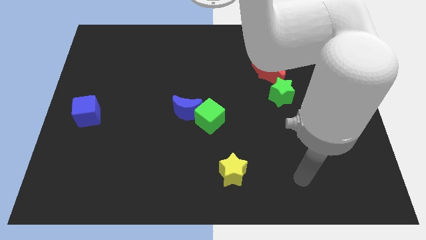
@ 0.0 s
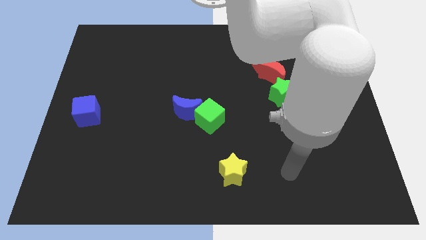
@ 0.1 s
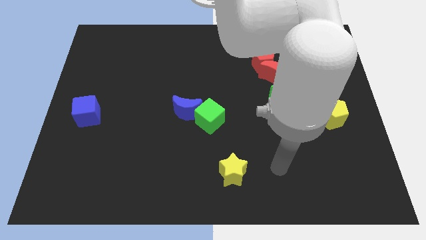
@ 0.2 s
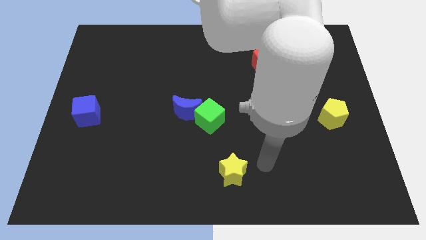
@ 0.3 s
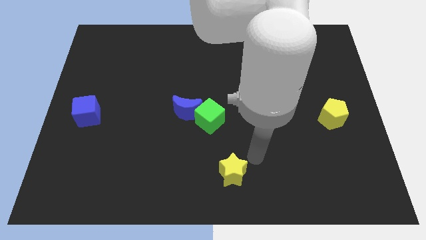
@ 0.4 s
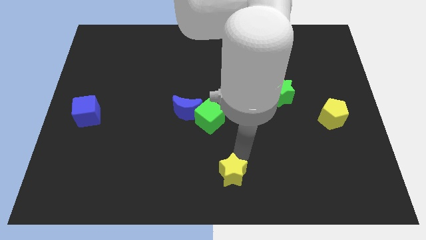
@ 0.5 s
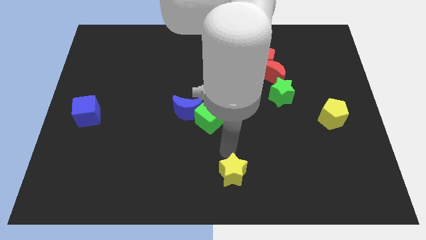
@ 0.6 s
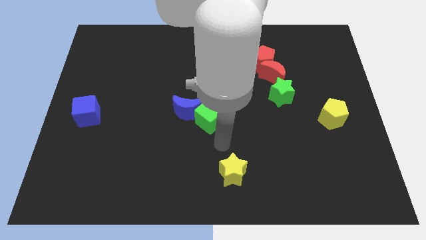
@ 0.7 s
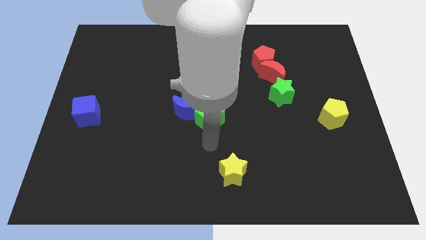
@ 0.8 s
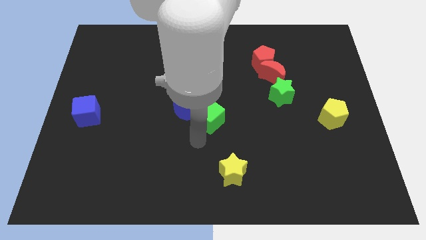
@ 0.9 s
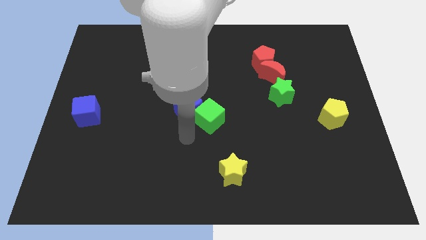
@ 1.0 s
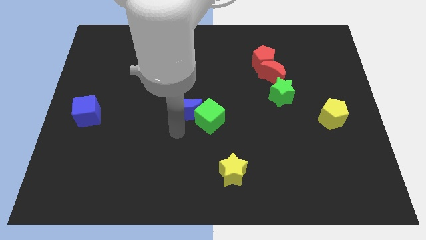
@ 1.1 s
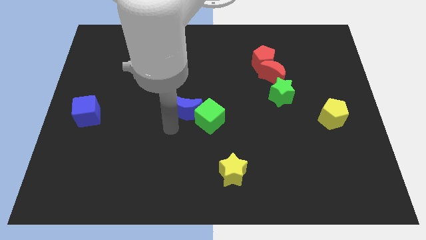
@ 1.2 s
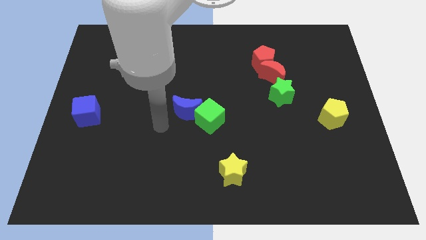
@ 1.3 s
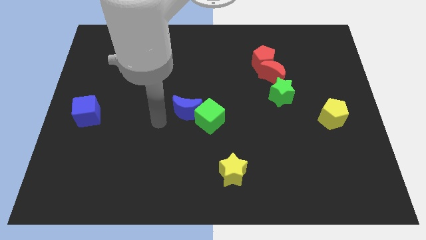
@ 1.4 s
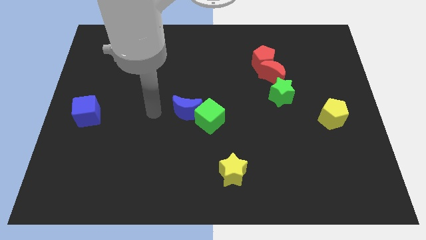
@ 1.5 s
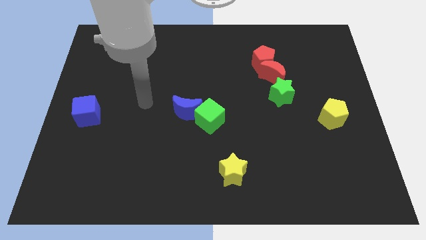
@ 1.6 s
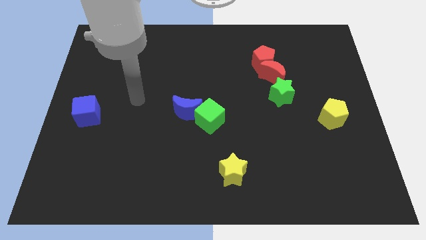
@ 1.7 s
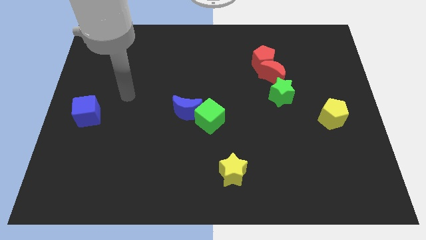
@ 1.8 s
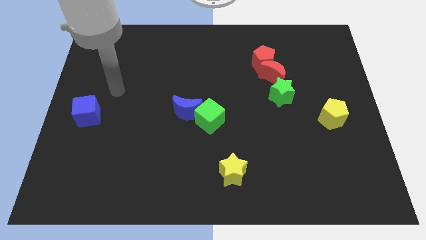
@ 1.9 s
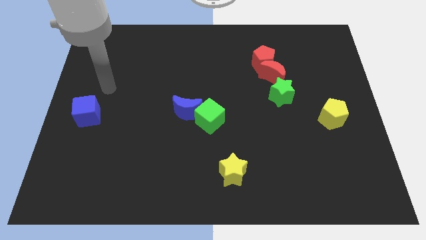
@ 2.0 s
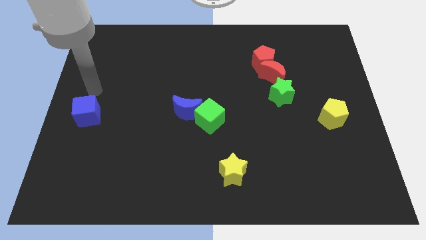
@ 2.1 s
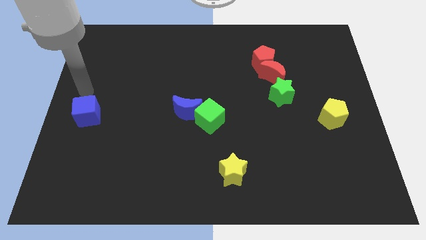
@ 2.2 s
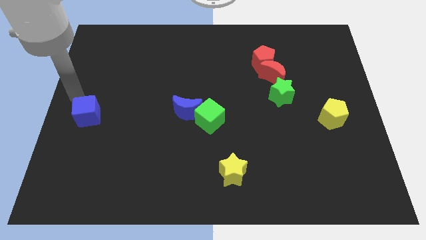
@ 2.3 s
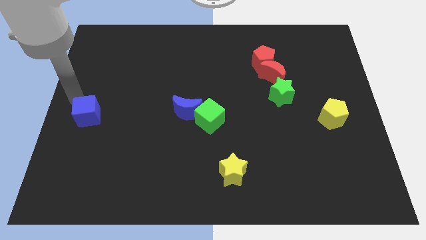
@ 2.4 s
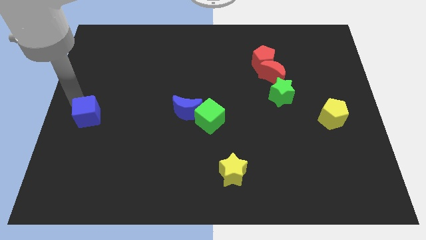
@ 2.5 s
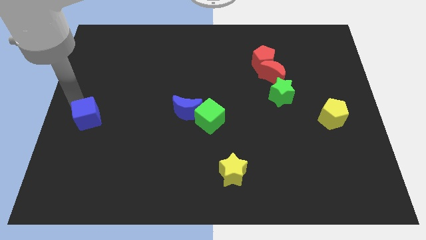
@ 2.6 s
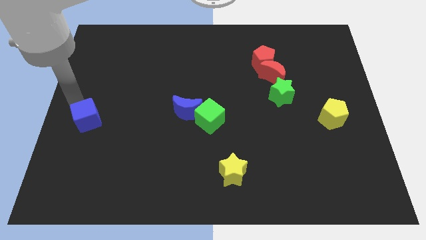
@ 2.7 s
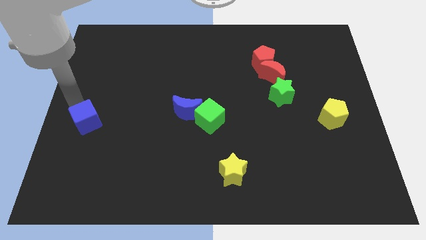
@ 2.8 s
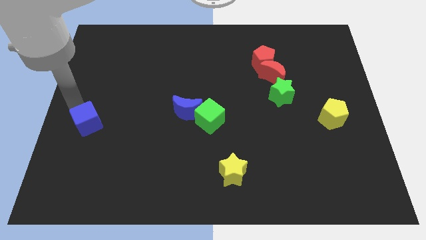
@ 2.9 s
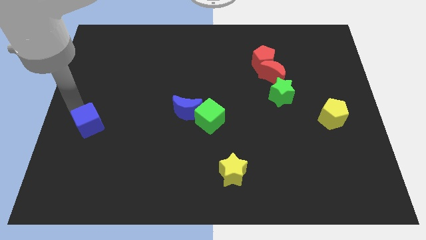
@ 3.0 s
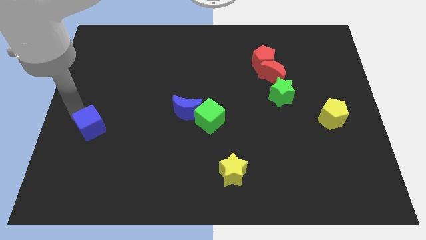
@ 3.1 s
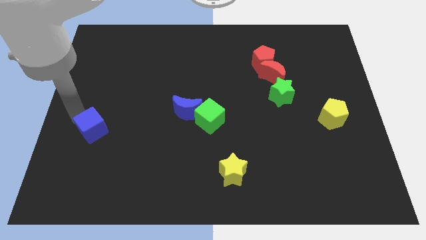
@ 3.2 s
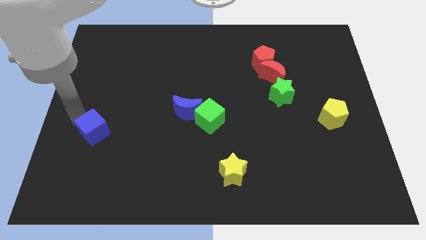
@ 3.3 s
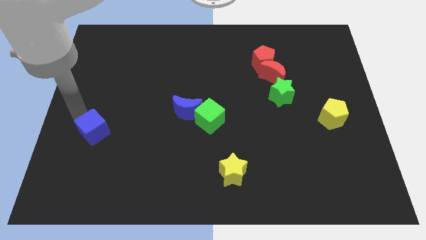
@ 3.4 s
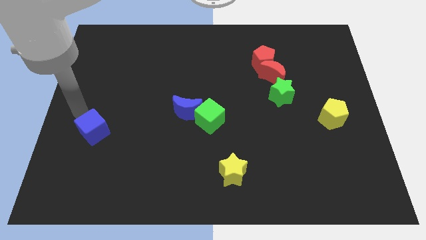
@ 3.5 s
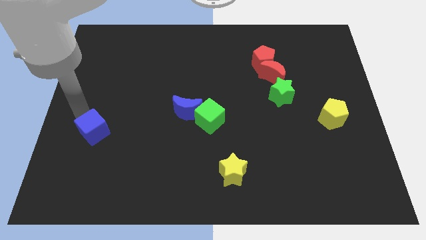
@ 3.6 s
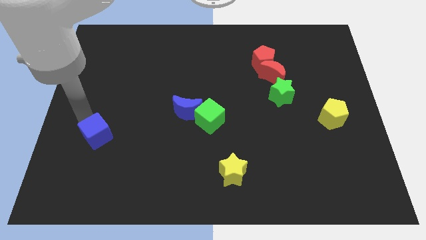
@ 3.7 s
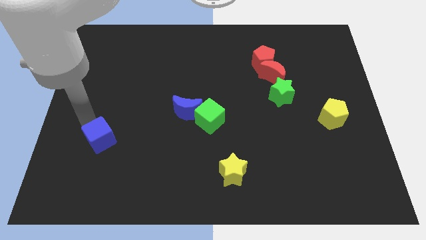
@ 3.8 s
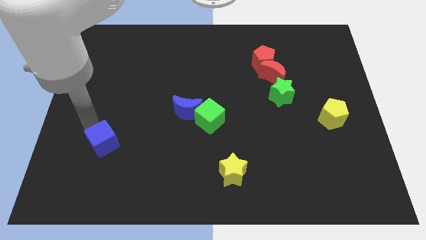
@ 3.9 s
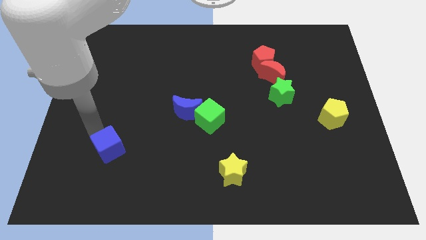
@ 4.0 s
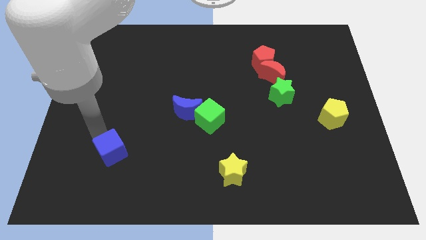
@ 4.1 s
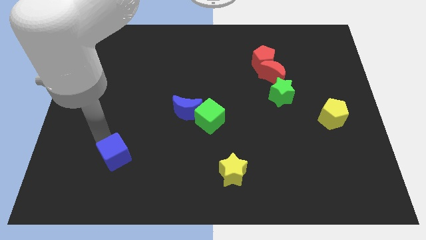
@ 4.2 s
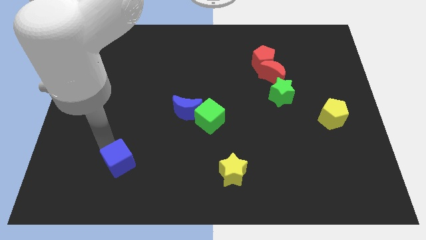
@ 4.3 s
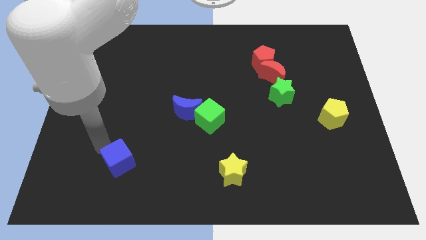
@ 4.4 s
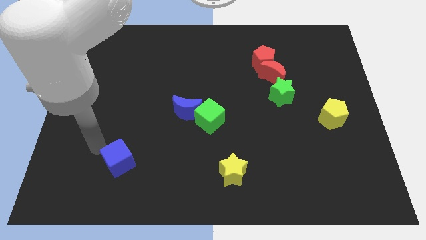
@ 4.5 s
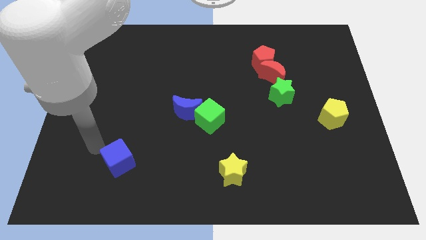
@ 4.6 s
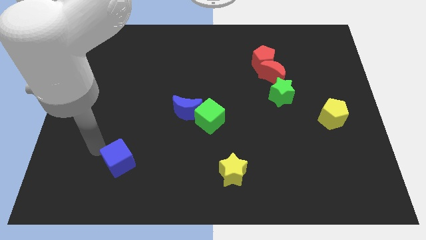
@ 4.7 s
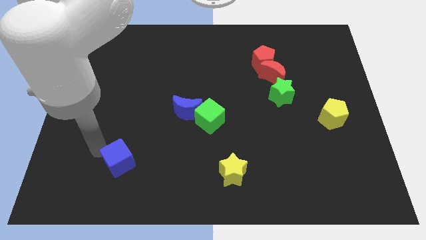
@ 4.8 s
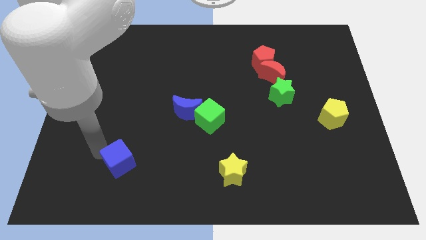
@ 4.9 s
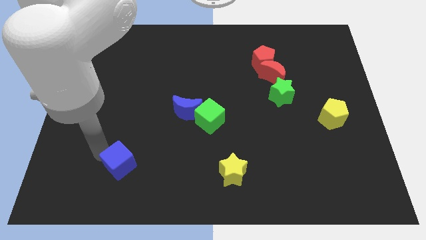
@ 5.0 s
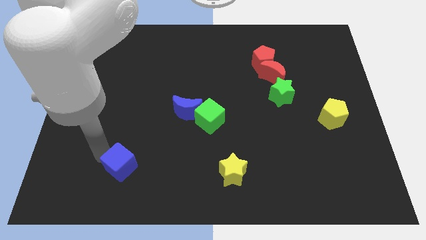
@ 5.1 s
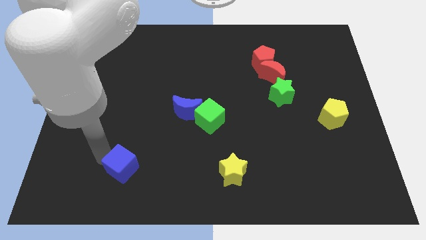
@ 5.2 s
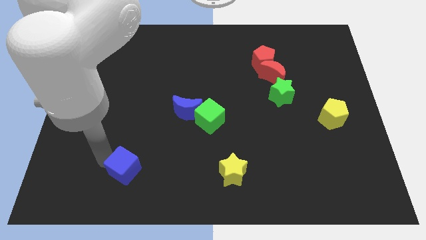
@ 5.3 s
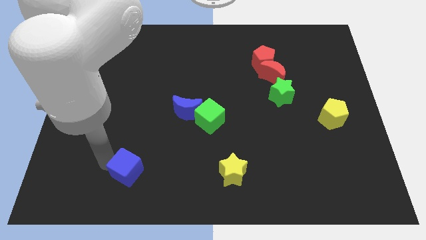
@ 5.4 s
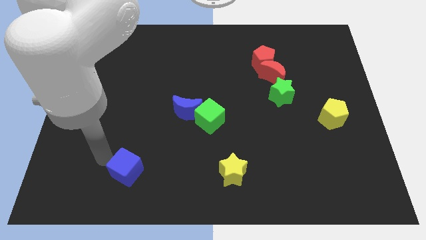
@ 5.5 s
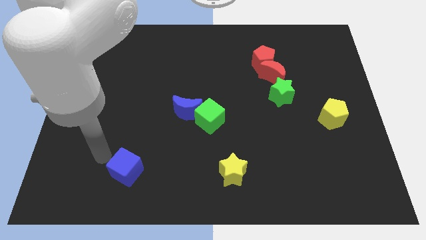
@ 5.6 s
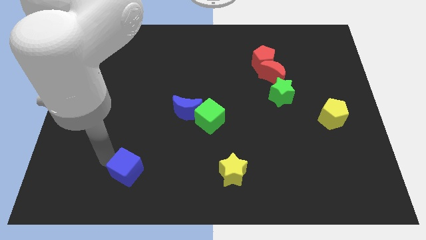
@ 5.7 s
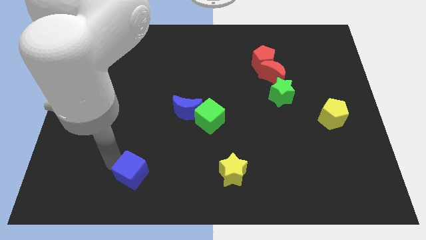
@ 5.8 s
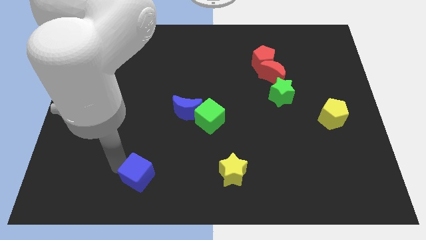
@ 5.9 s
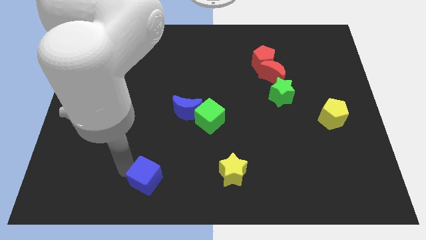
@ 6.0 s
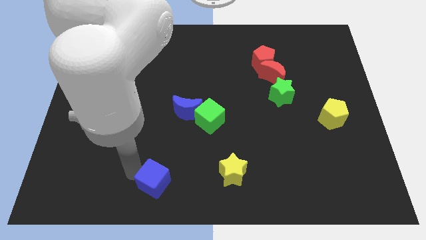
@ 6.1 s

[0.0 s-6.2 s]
slide the blue cube to the bottom side
